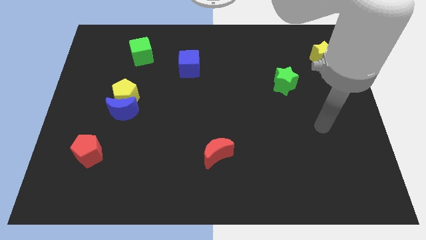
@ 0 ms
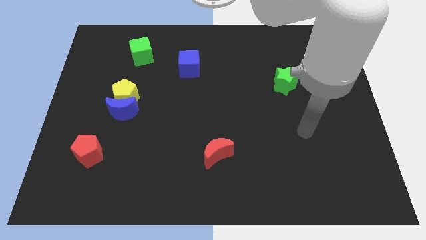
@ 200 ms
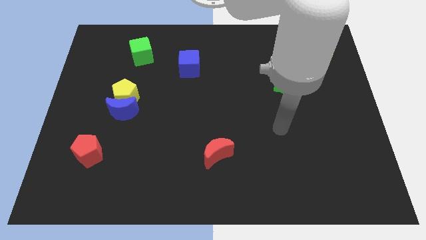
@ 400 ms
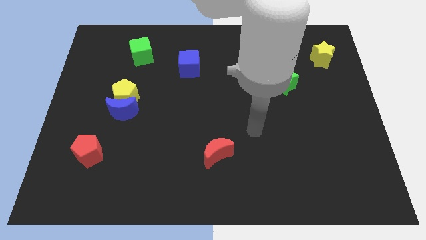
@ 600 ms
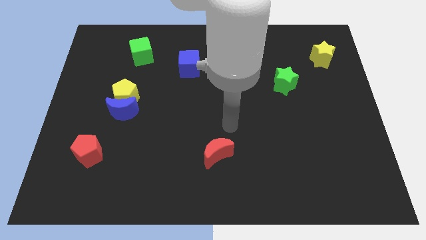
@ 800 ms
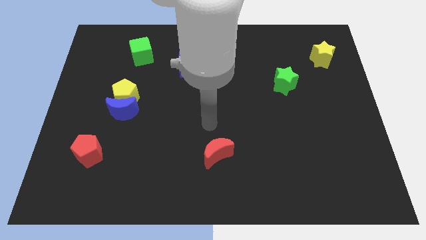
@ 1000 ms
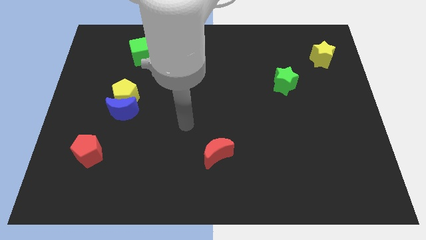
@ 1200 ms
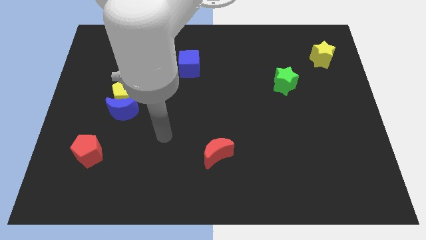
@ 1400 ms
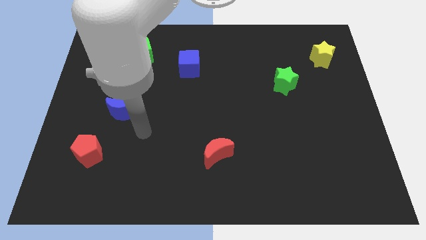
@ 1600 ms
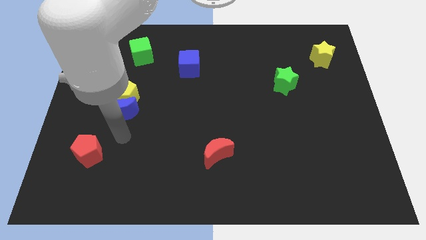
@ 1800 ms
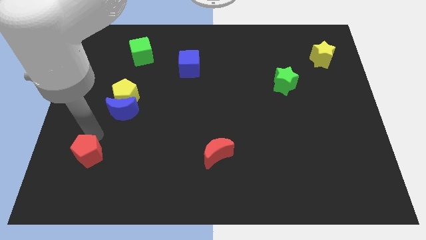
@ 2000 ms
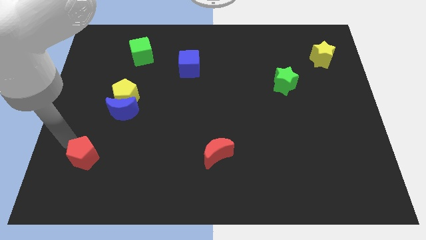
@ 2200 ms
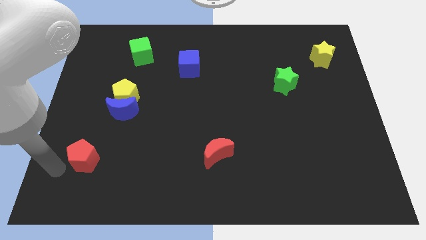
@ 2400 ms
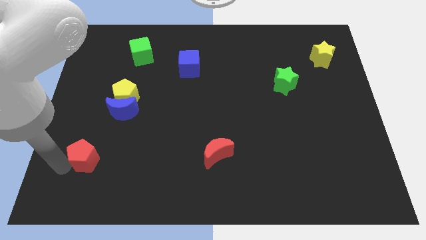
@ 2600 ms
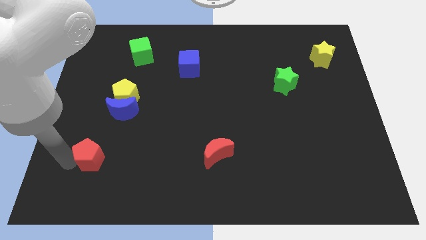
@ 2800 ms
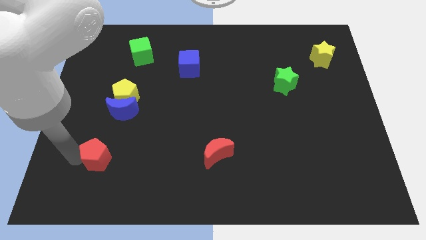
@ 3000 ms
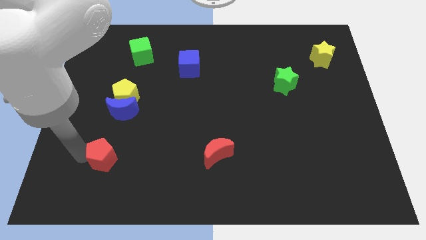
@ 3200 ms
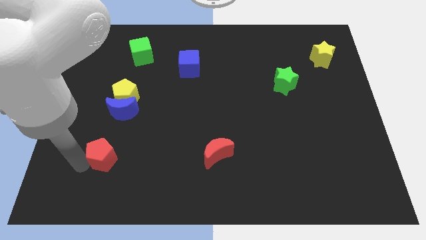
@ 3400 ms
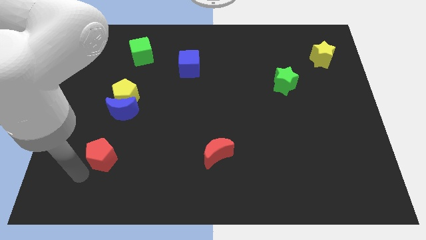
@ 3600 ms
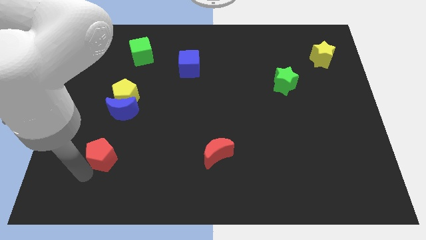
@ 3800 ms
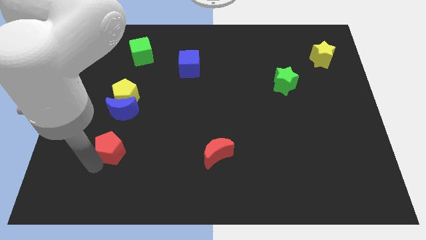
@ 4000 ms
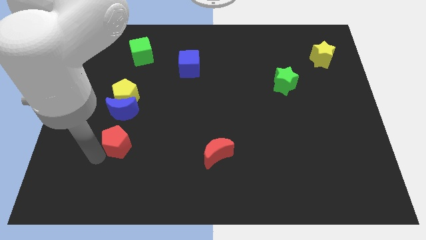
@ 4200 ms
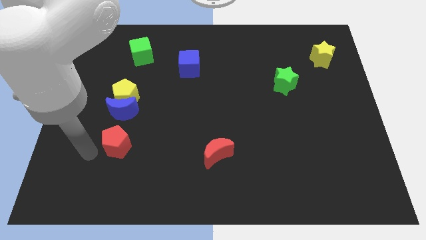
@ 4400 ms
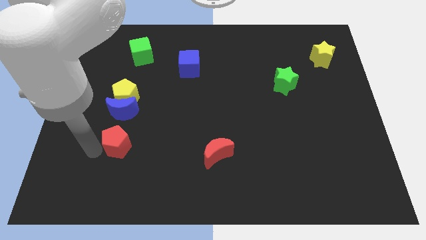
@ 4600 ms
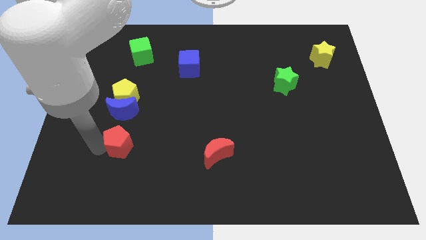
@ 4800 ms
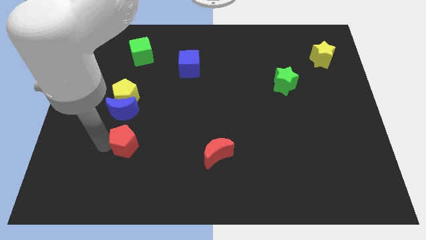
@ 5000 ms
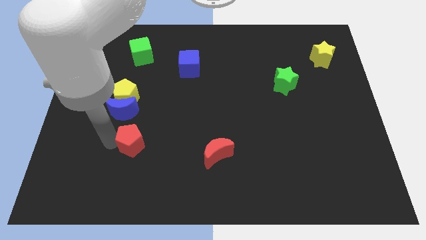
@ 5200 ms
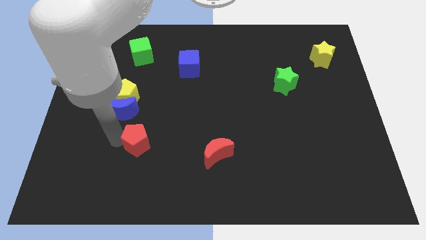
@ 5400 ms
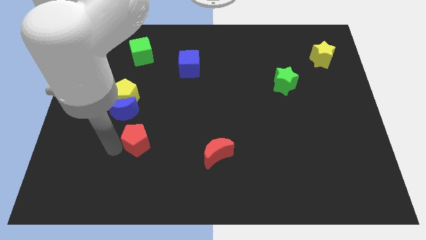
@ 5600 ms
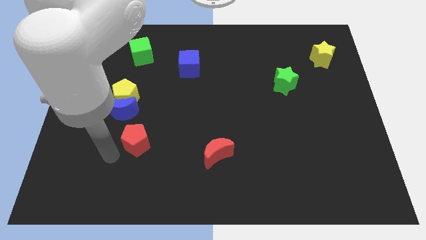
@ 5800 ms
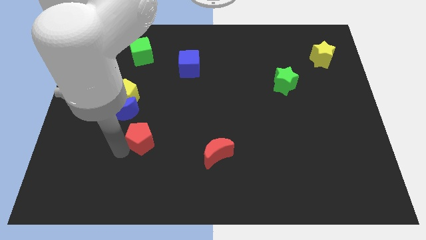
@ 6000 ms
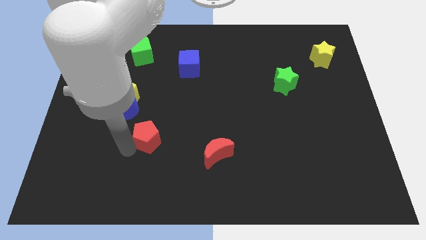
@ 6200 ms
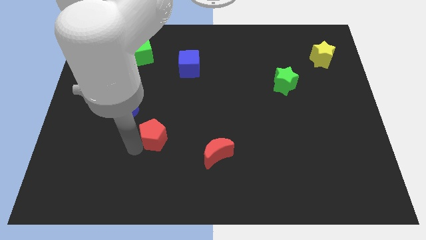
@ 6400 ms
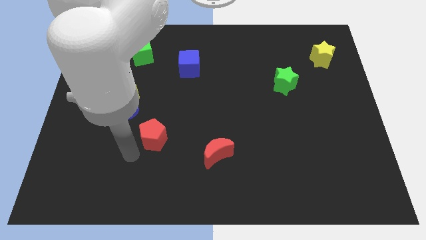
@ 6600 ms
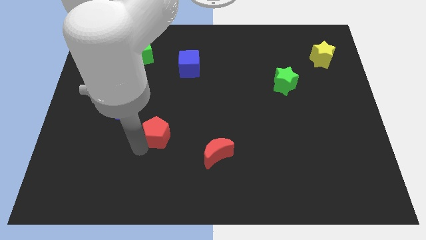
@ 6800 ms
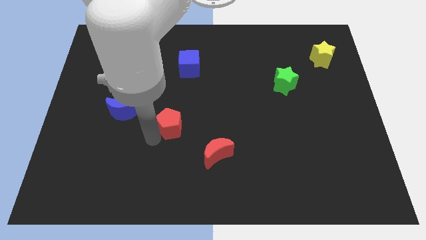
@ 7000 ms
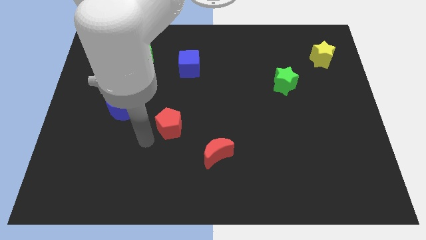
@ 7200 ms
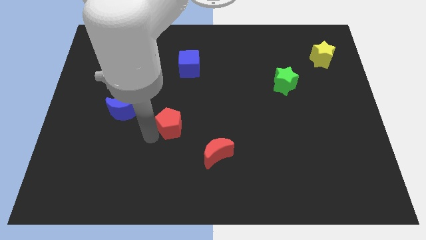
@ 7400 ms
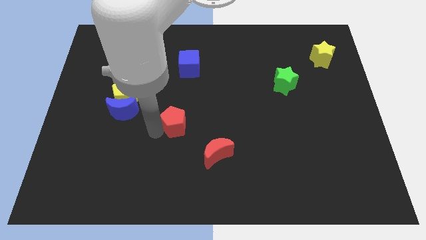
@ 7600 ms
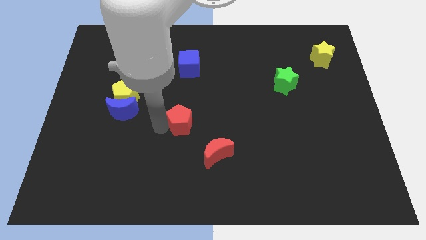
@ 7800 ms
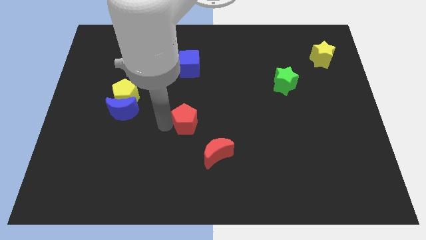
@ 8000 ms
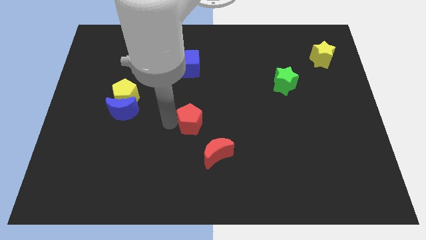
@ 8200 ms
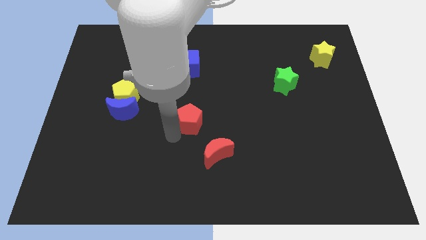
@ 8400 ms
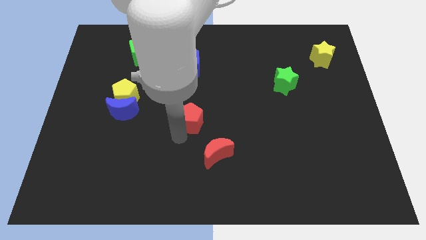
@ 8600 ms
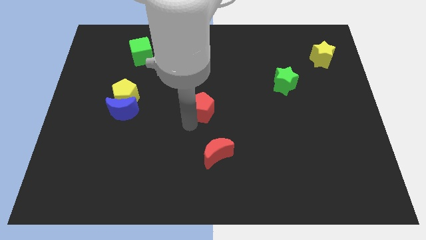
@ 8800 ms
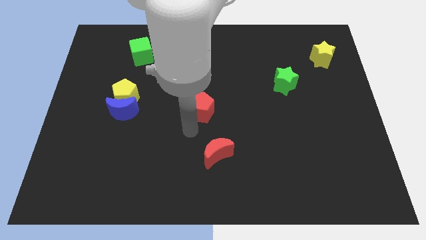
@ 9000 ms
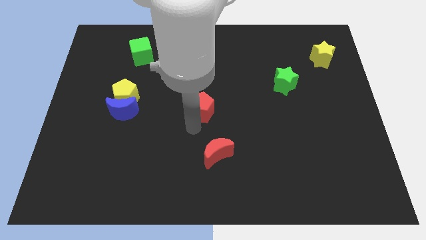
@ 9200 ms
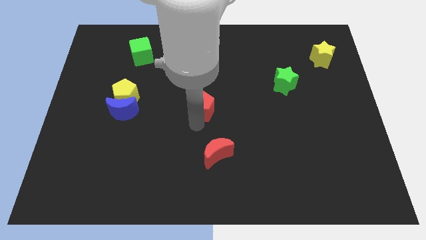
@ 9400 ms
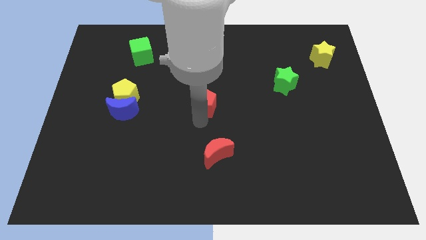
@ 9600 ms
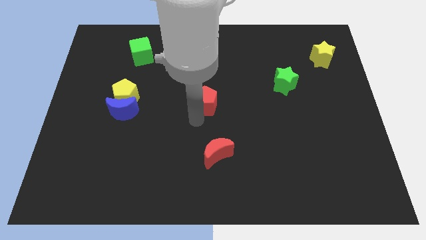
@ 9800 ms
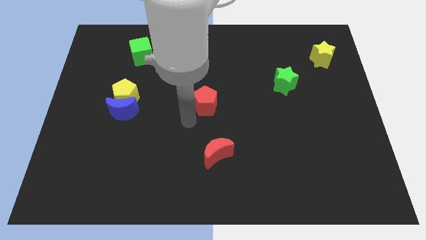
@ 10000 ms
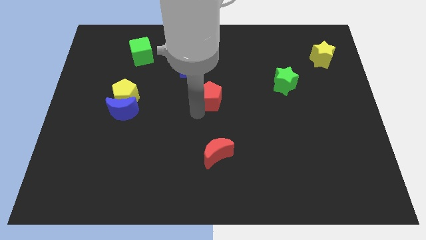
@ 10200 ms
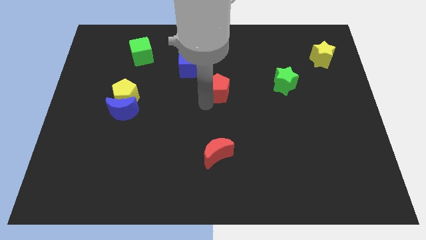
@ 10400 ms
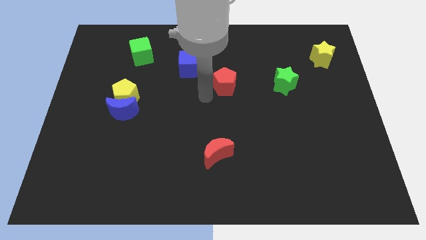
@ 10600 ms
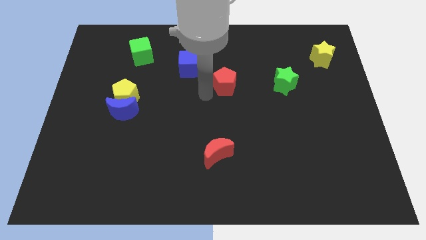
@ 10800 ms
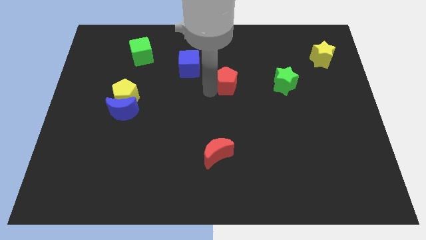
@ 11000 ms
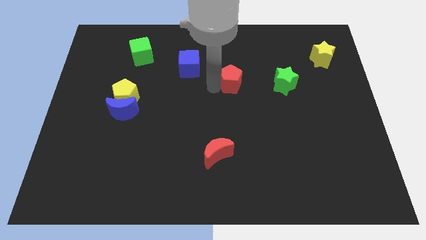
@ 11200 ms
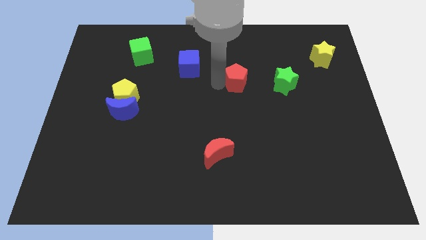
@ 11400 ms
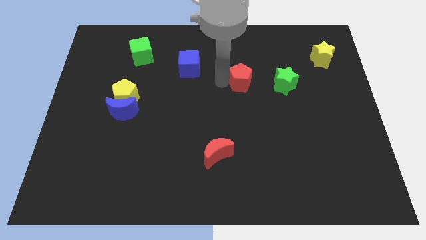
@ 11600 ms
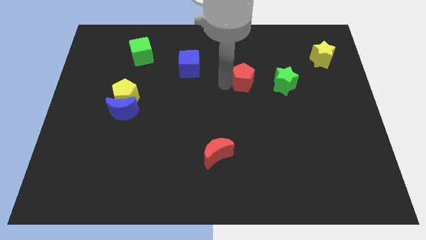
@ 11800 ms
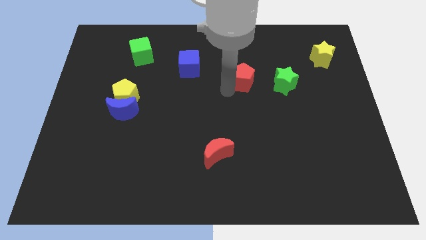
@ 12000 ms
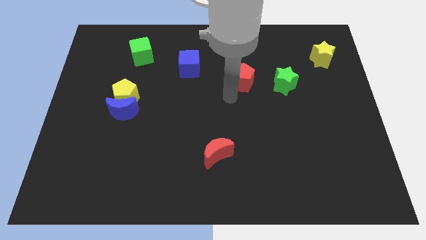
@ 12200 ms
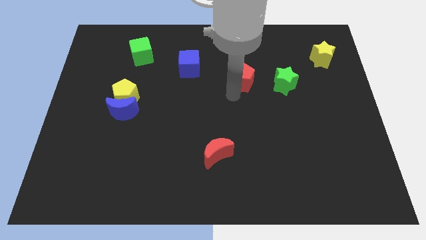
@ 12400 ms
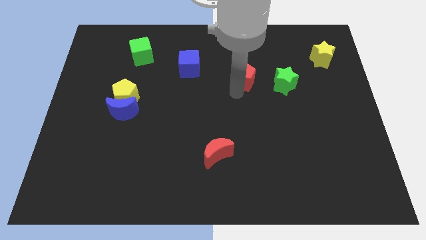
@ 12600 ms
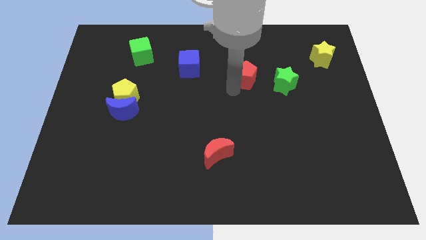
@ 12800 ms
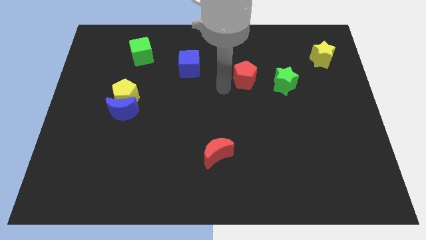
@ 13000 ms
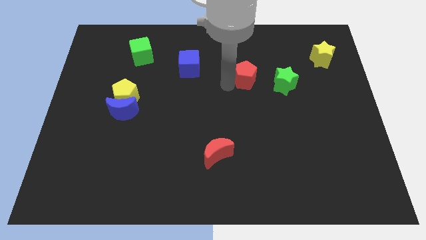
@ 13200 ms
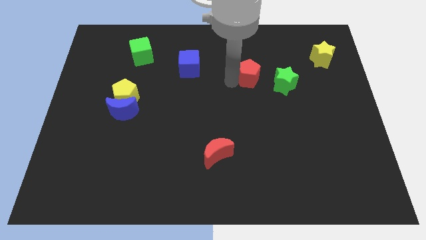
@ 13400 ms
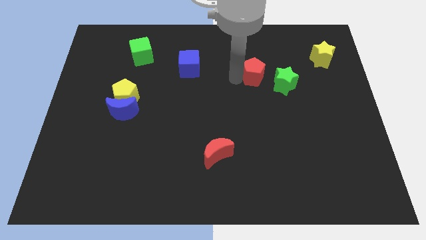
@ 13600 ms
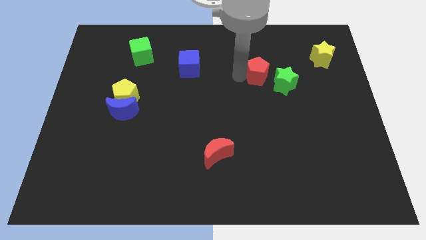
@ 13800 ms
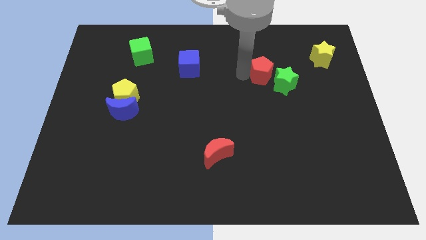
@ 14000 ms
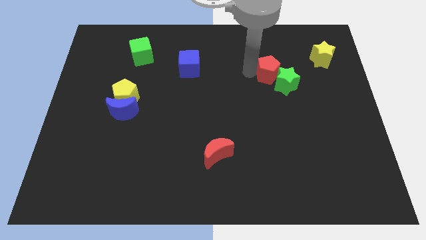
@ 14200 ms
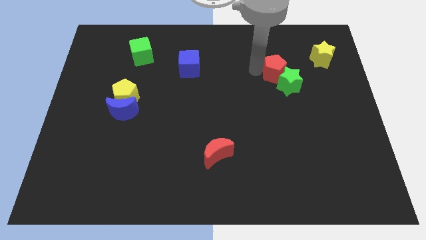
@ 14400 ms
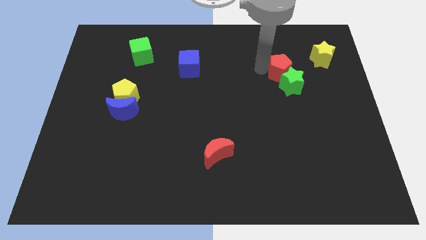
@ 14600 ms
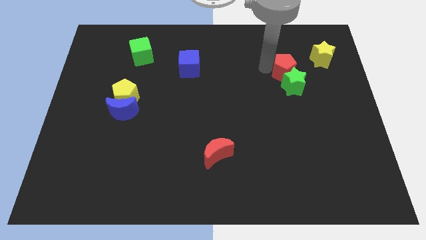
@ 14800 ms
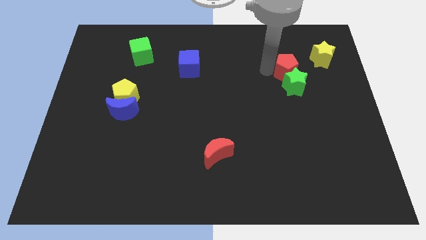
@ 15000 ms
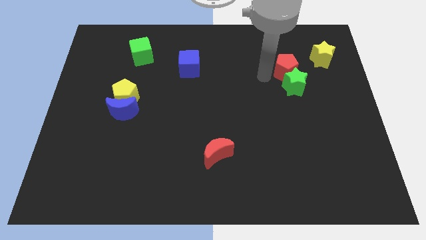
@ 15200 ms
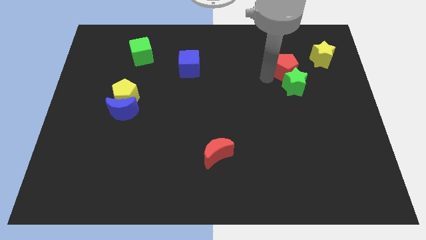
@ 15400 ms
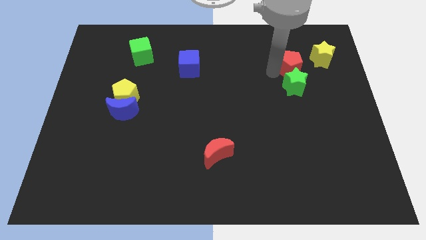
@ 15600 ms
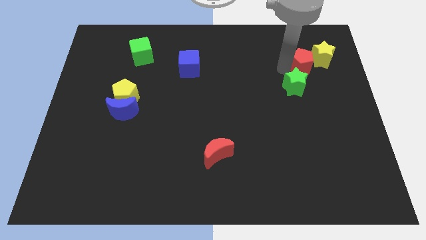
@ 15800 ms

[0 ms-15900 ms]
slide the red pentagon next to the yellow star
